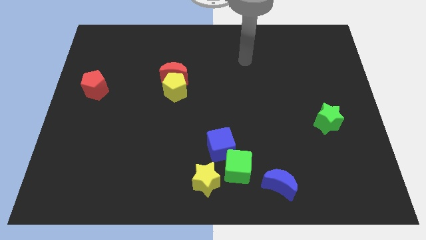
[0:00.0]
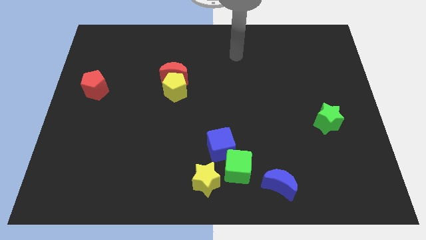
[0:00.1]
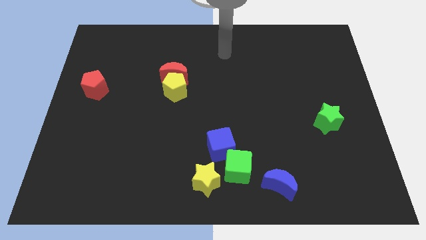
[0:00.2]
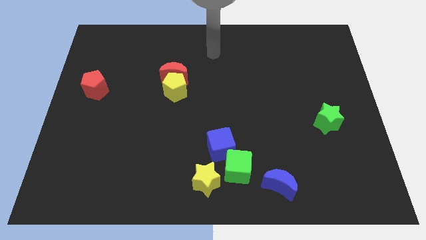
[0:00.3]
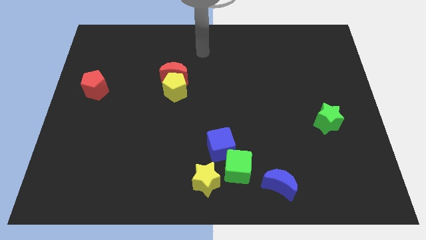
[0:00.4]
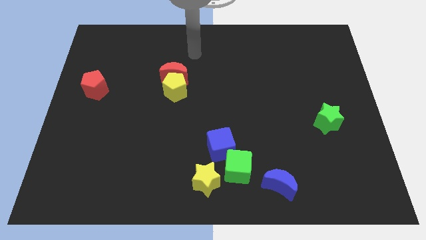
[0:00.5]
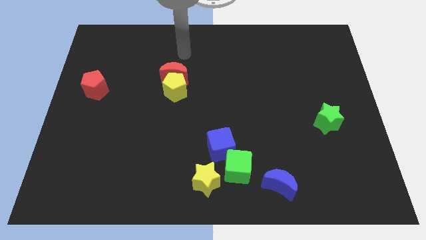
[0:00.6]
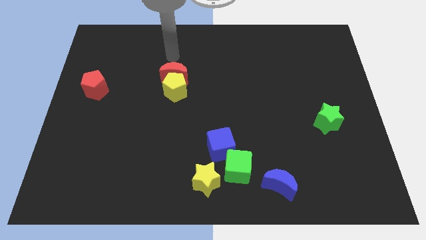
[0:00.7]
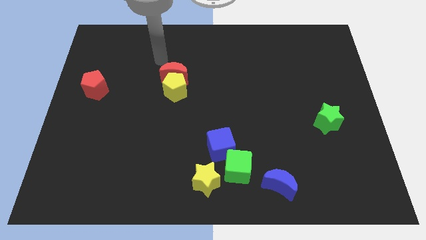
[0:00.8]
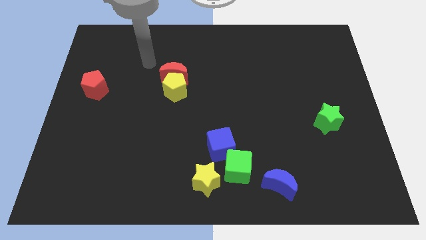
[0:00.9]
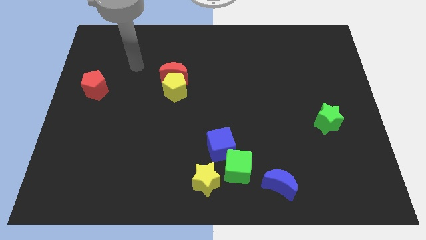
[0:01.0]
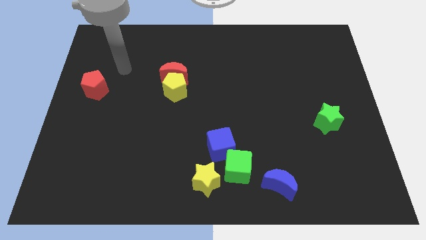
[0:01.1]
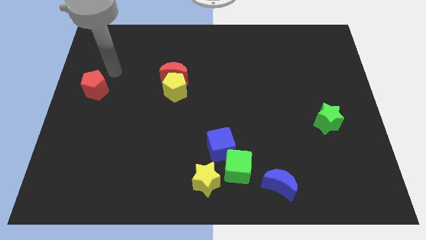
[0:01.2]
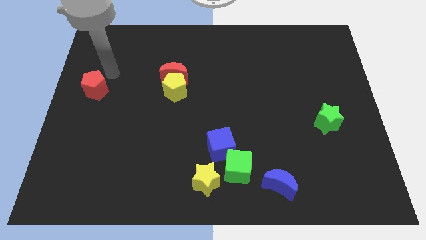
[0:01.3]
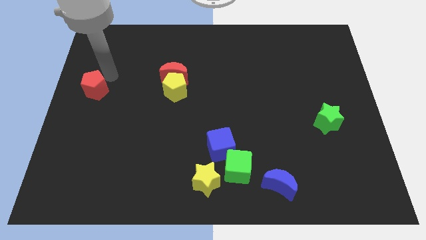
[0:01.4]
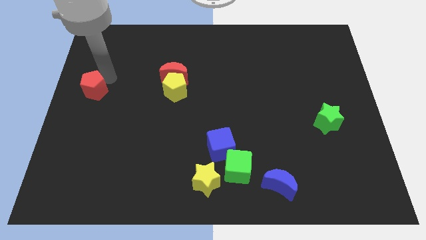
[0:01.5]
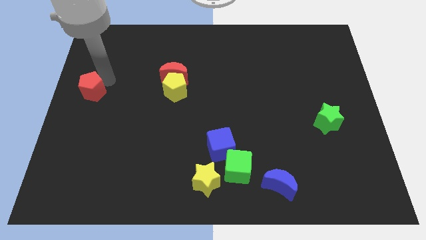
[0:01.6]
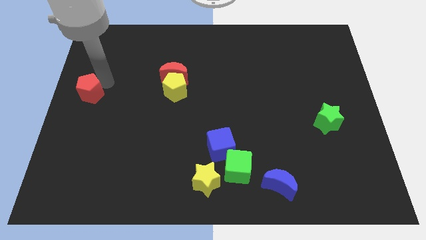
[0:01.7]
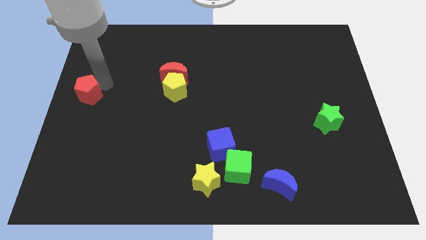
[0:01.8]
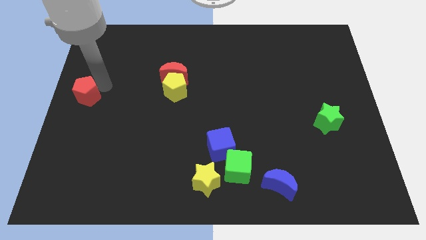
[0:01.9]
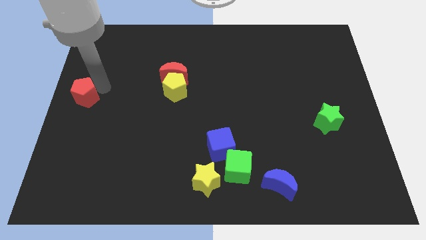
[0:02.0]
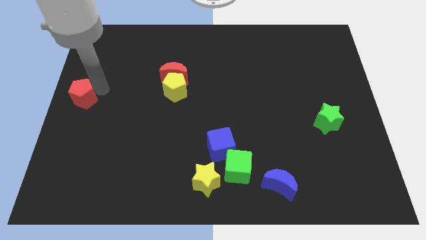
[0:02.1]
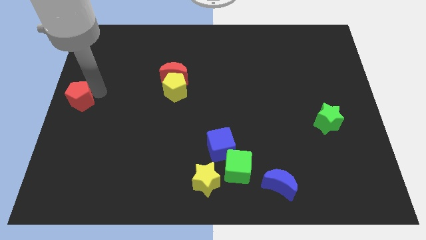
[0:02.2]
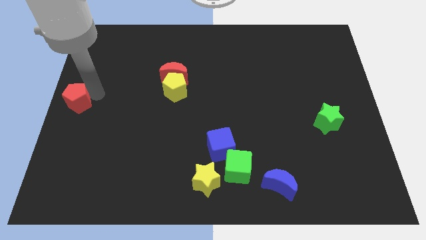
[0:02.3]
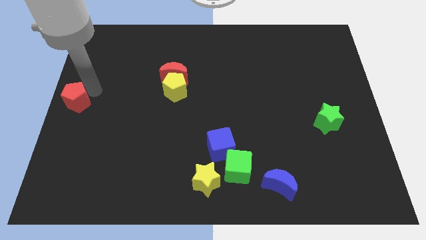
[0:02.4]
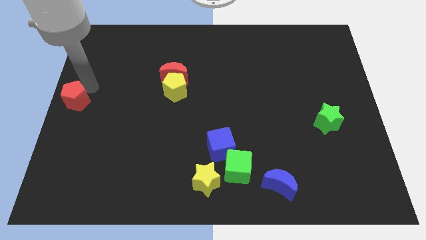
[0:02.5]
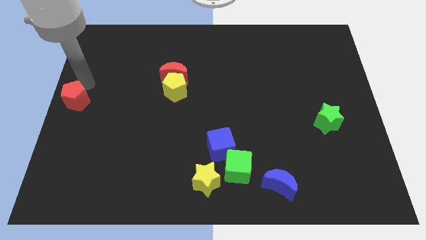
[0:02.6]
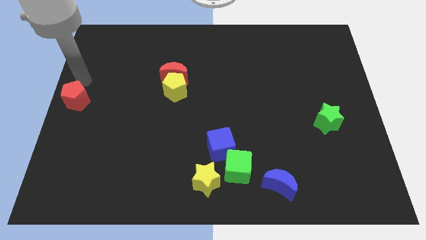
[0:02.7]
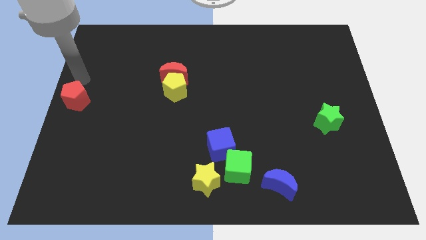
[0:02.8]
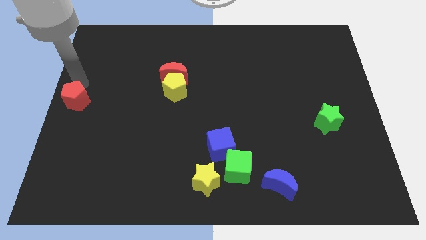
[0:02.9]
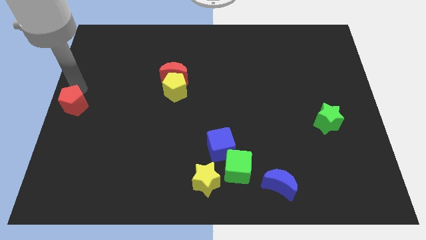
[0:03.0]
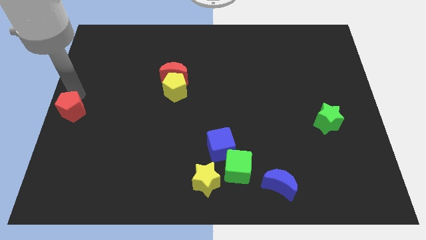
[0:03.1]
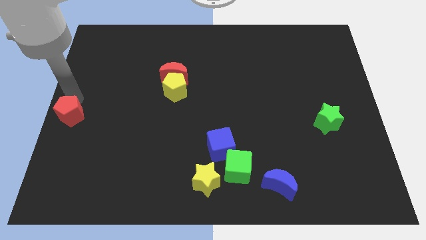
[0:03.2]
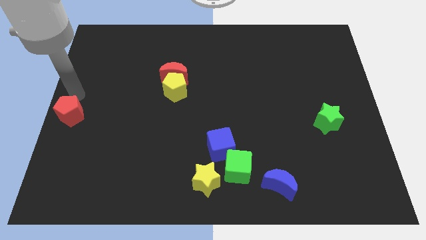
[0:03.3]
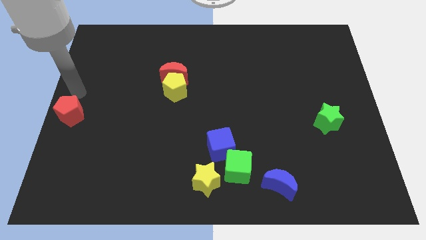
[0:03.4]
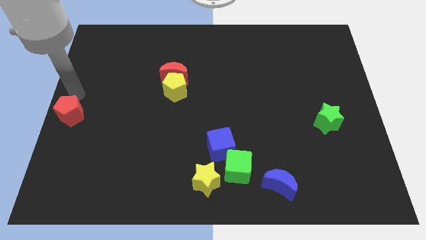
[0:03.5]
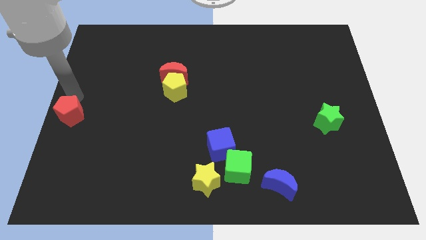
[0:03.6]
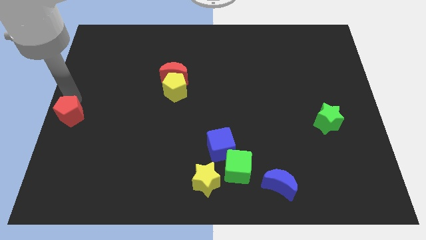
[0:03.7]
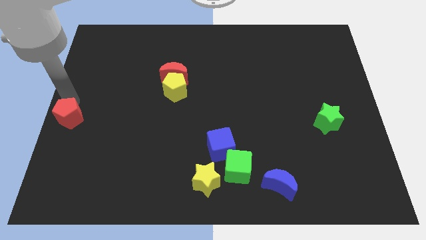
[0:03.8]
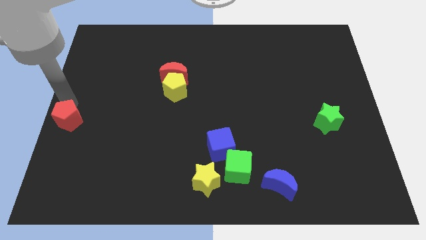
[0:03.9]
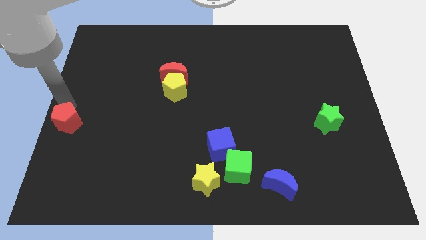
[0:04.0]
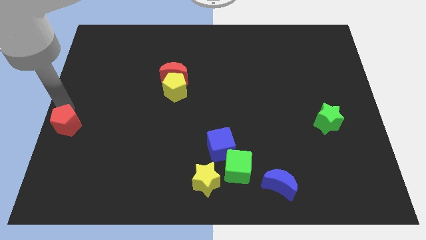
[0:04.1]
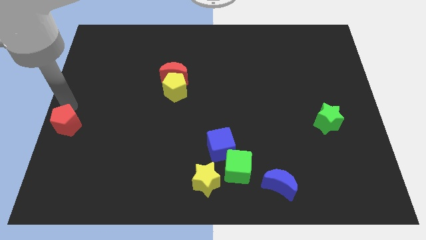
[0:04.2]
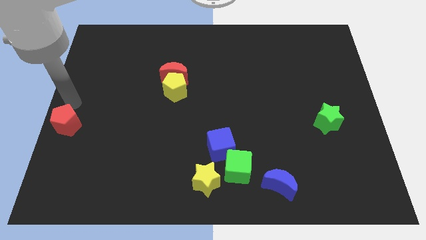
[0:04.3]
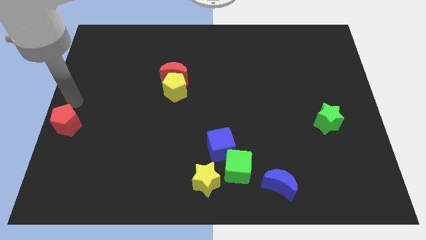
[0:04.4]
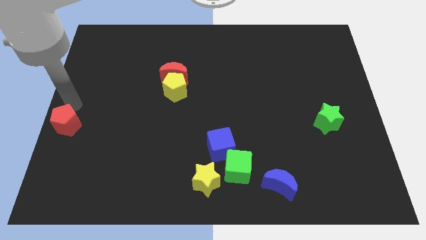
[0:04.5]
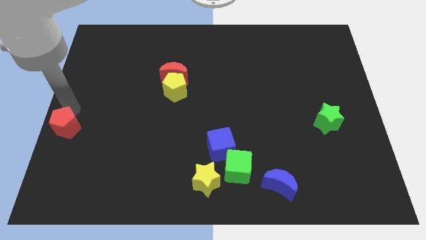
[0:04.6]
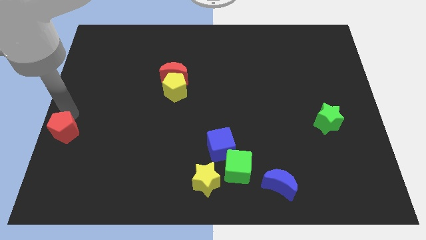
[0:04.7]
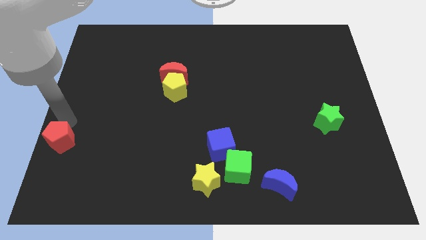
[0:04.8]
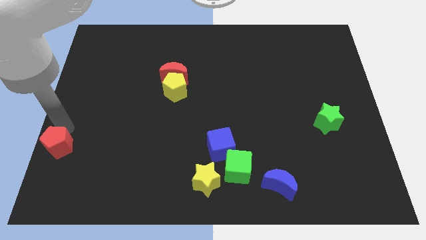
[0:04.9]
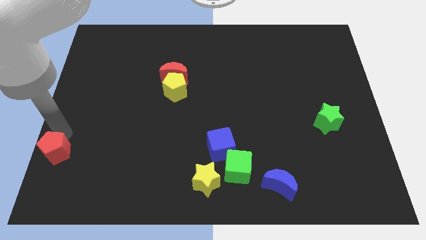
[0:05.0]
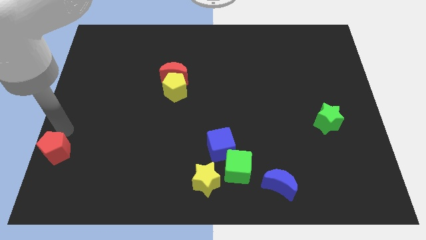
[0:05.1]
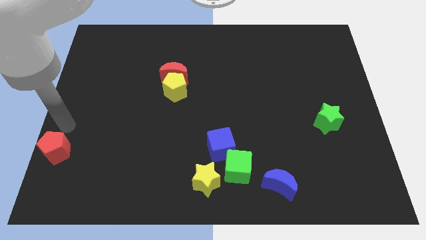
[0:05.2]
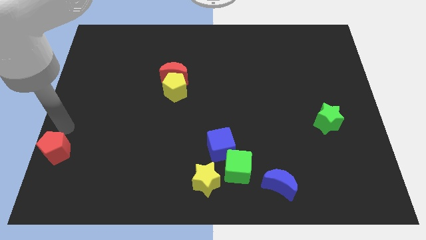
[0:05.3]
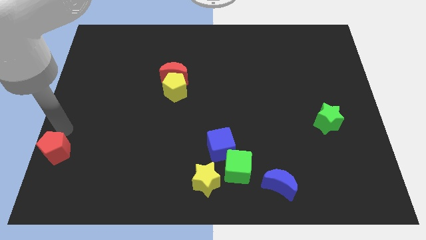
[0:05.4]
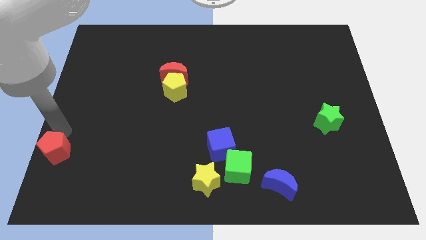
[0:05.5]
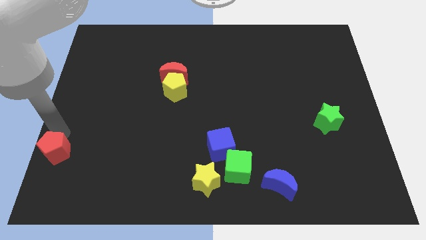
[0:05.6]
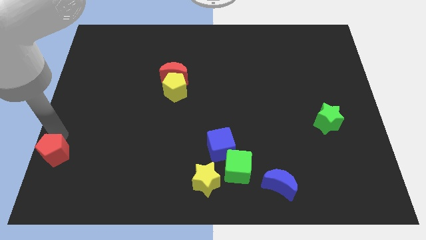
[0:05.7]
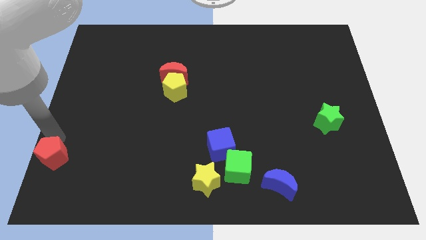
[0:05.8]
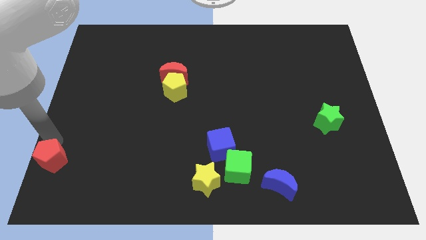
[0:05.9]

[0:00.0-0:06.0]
move the red pentagon to the lower left corner
